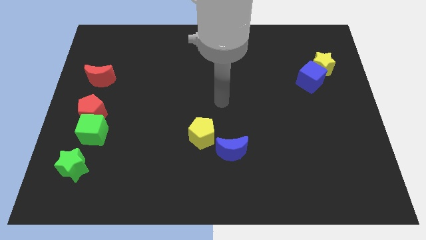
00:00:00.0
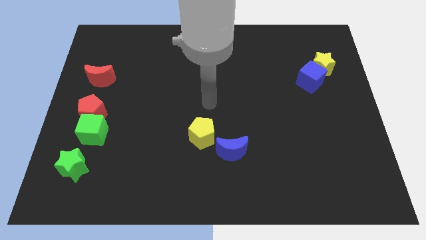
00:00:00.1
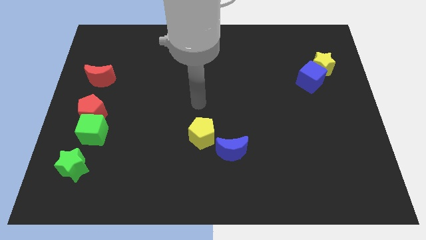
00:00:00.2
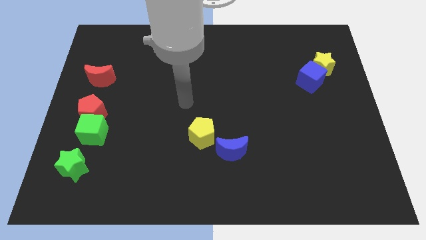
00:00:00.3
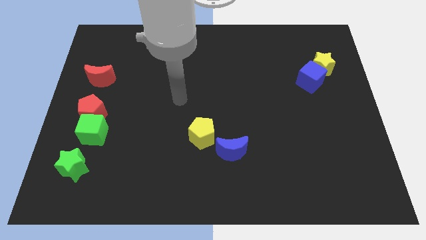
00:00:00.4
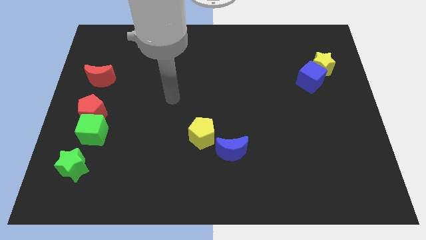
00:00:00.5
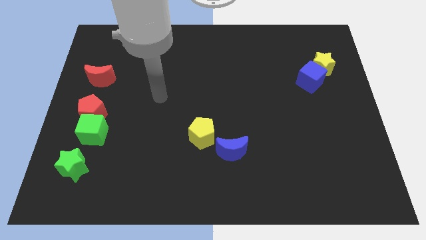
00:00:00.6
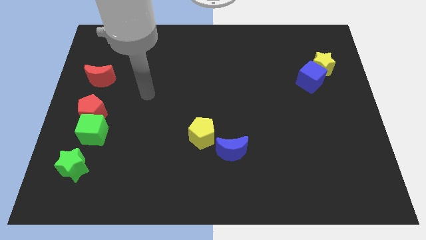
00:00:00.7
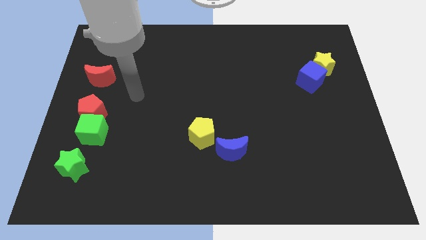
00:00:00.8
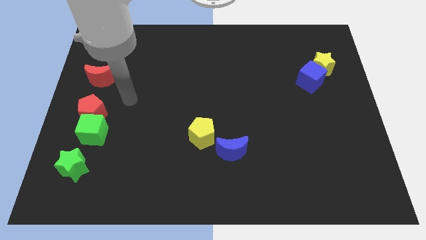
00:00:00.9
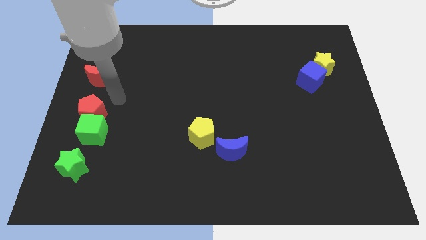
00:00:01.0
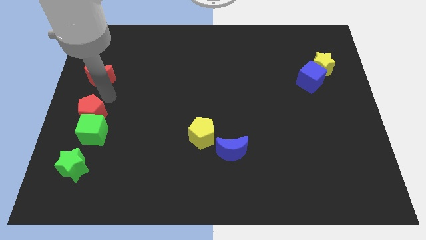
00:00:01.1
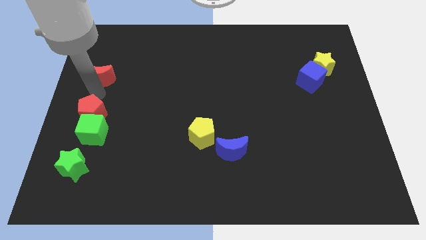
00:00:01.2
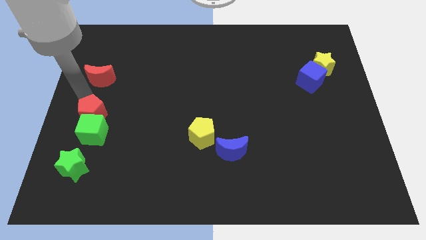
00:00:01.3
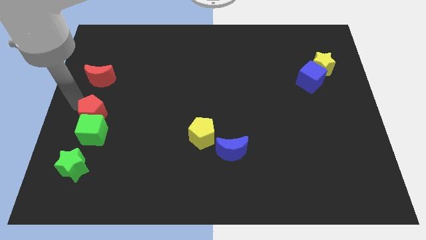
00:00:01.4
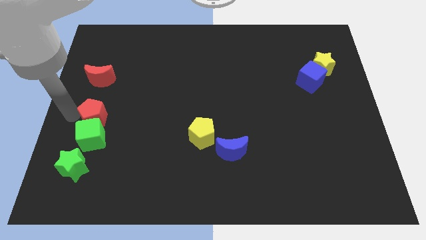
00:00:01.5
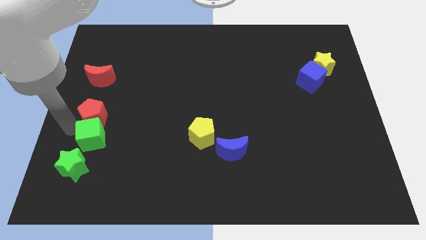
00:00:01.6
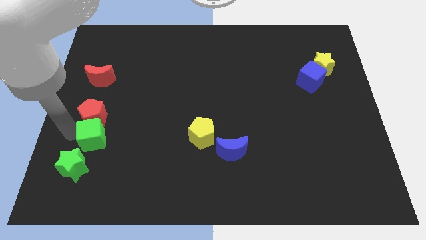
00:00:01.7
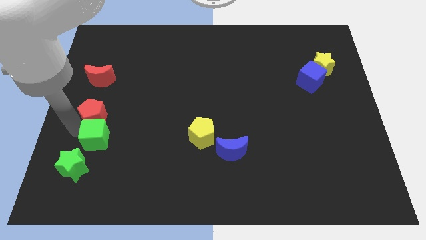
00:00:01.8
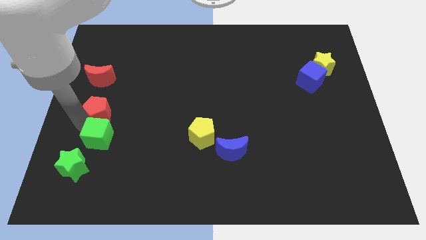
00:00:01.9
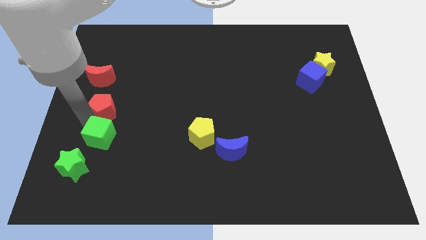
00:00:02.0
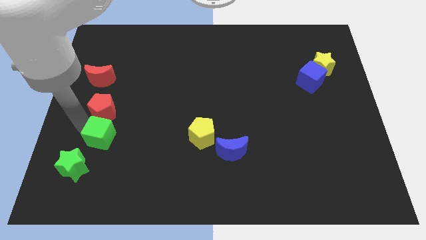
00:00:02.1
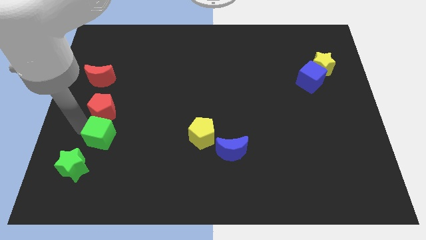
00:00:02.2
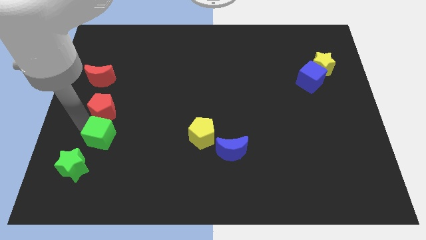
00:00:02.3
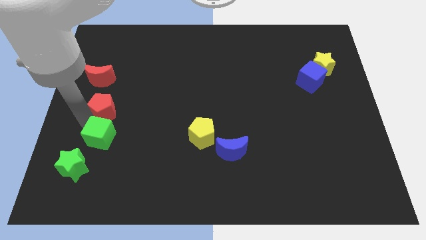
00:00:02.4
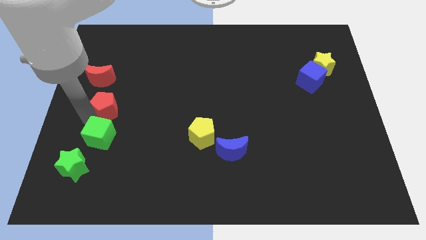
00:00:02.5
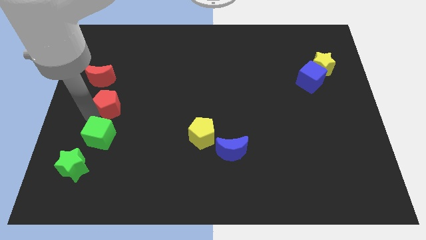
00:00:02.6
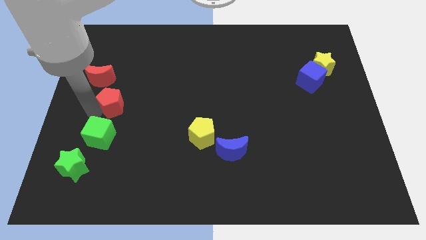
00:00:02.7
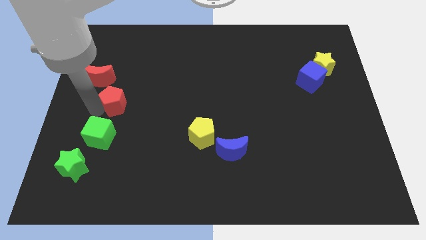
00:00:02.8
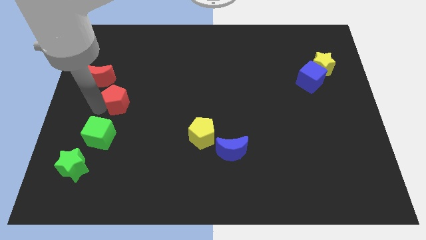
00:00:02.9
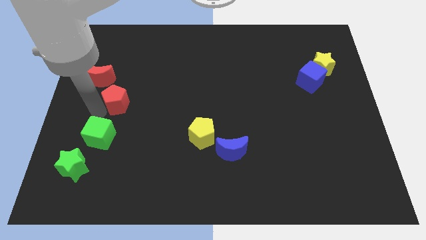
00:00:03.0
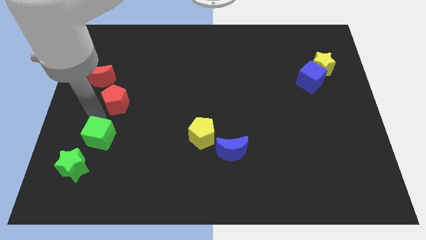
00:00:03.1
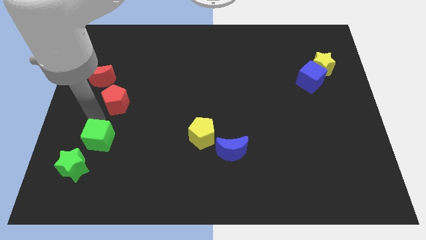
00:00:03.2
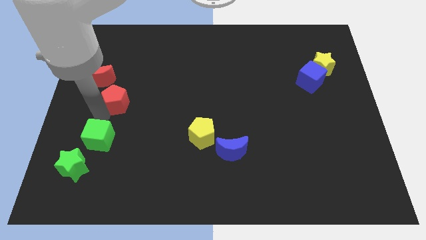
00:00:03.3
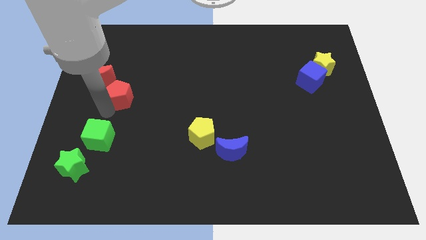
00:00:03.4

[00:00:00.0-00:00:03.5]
slightly move the red pentagon diagonally up and to the right

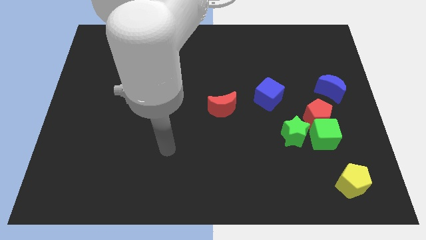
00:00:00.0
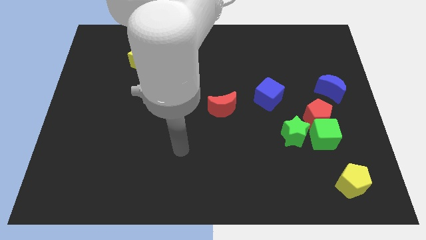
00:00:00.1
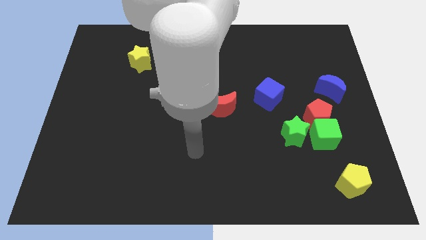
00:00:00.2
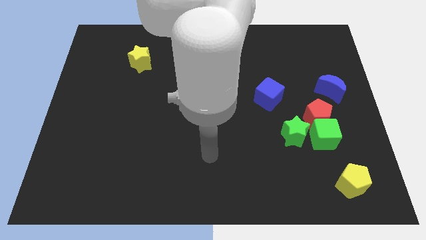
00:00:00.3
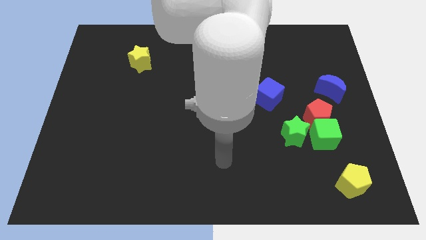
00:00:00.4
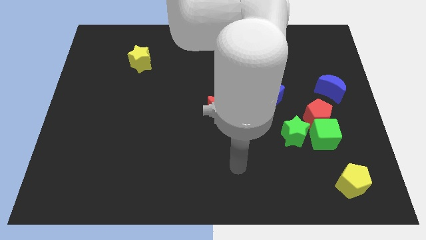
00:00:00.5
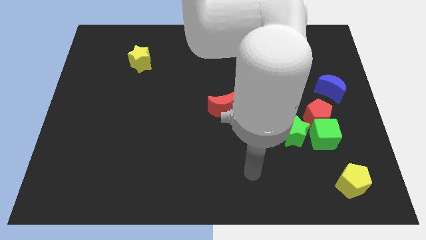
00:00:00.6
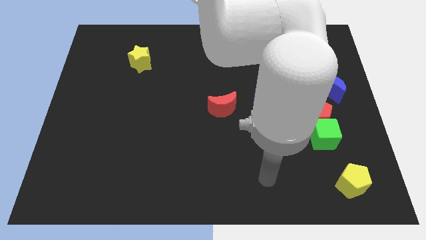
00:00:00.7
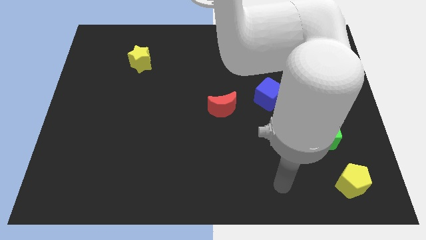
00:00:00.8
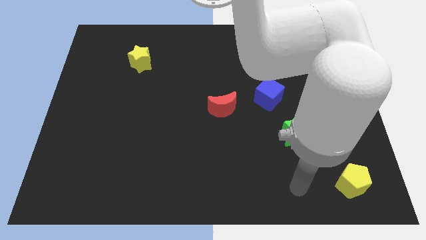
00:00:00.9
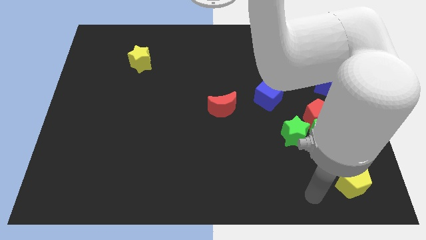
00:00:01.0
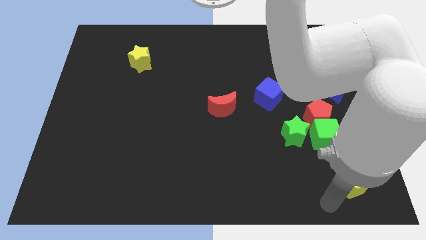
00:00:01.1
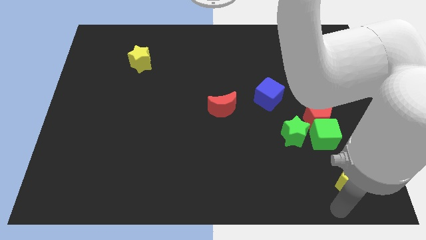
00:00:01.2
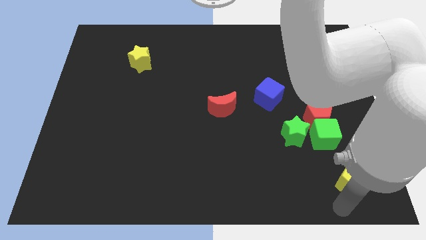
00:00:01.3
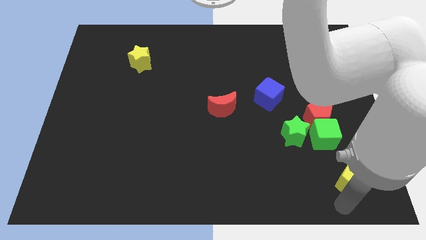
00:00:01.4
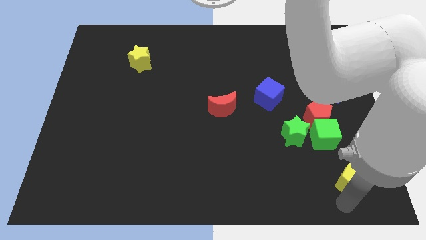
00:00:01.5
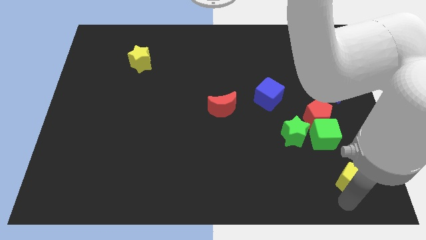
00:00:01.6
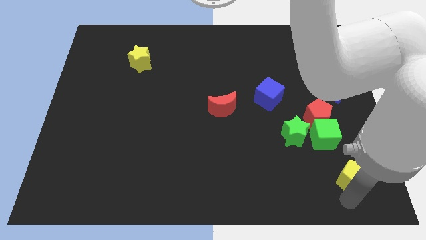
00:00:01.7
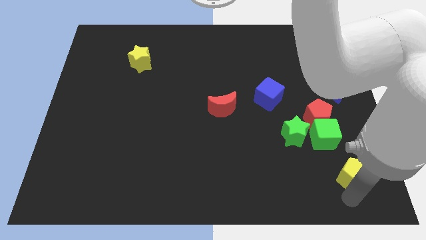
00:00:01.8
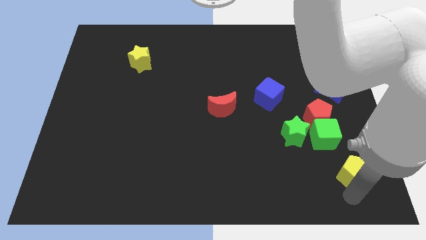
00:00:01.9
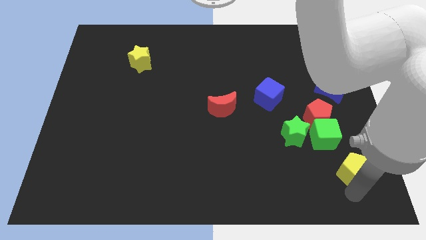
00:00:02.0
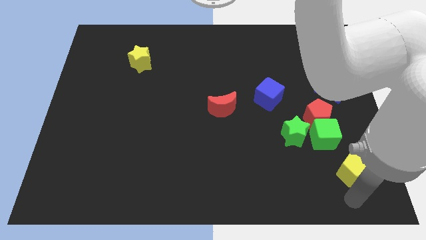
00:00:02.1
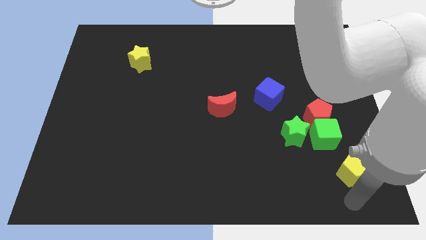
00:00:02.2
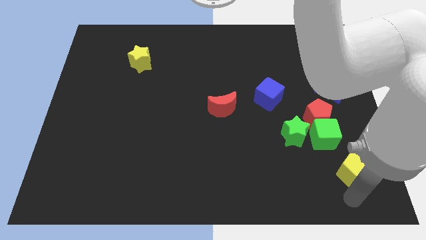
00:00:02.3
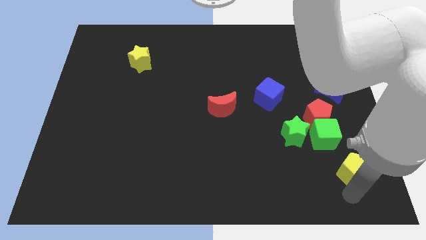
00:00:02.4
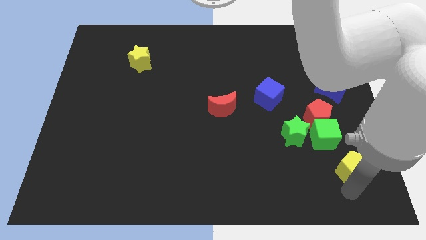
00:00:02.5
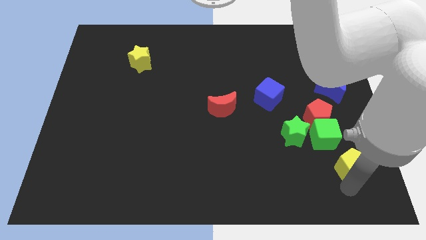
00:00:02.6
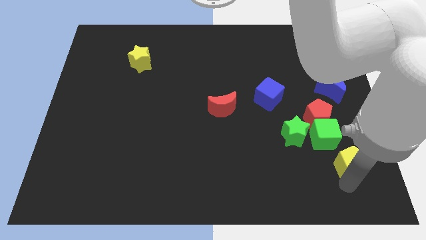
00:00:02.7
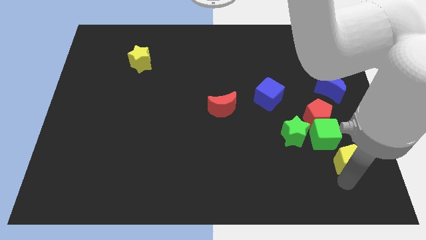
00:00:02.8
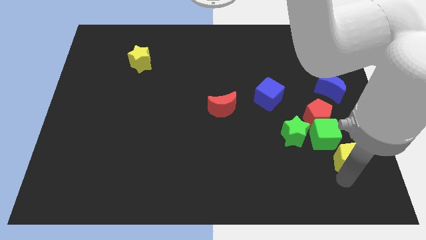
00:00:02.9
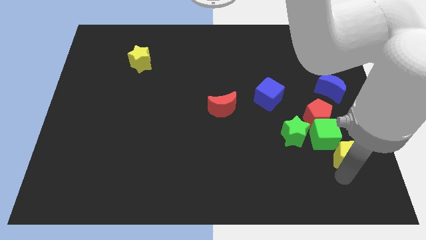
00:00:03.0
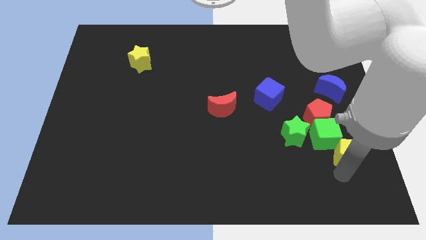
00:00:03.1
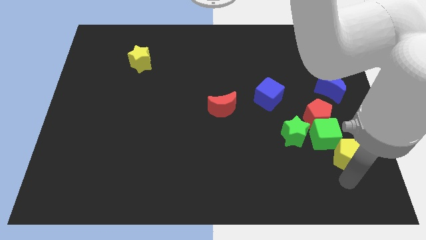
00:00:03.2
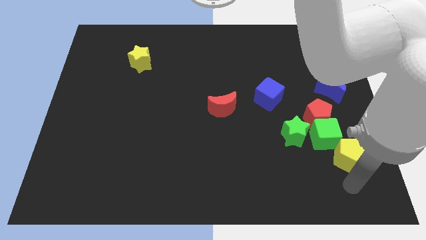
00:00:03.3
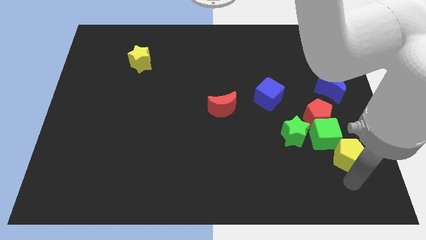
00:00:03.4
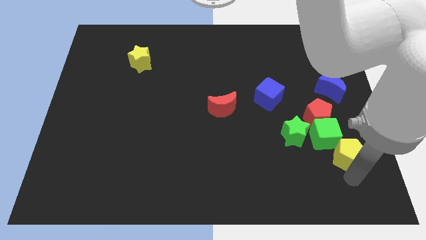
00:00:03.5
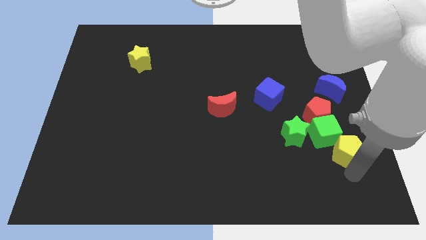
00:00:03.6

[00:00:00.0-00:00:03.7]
slightly push the yellow pentagon upwards

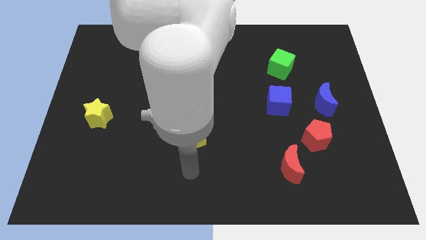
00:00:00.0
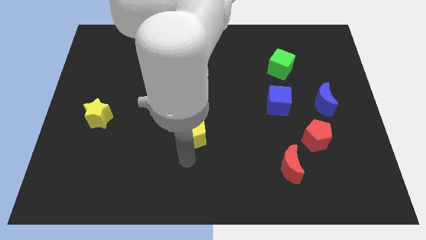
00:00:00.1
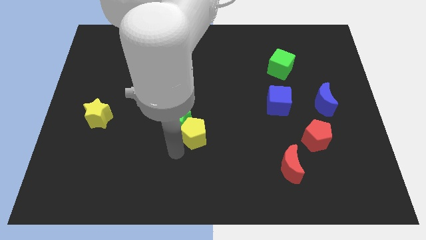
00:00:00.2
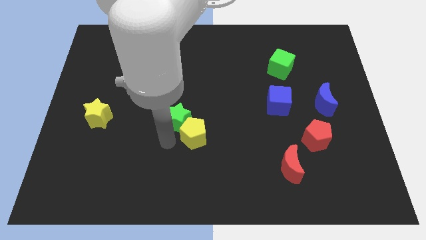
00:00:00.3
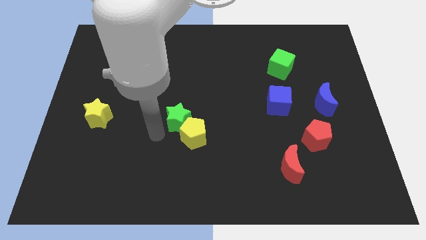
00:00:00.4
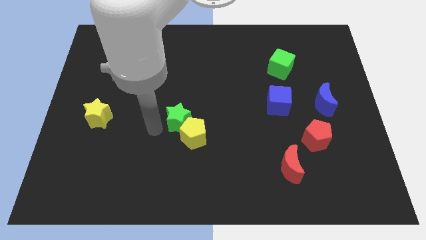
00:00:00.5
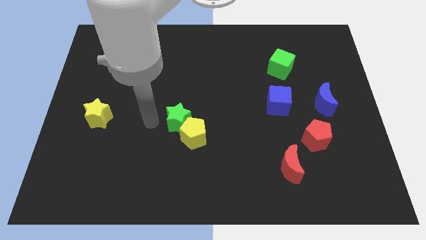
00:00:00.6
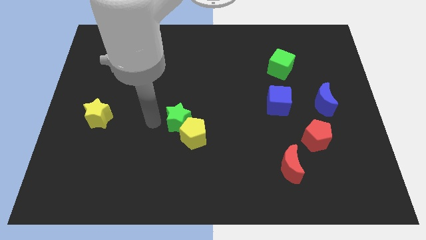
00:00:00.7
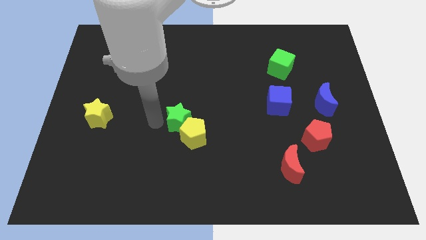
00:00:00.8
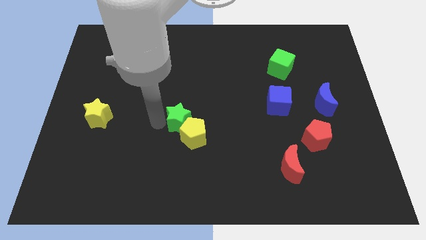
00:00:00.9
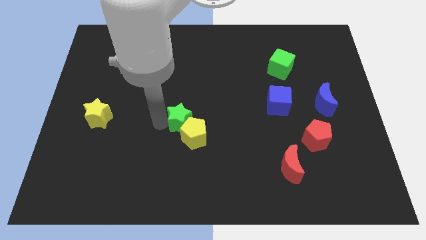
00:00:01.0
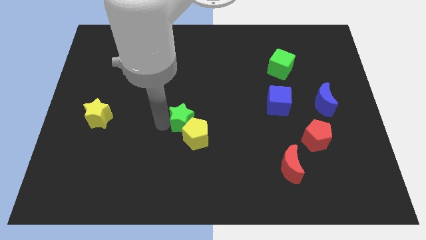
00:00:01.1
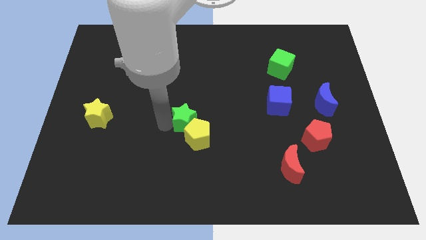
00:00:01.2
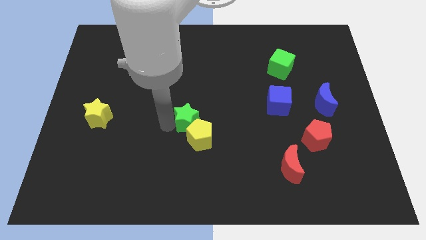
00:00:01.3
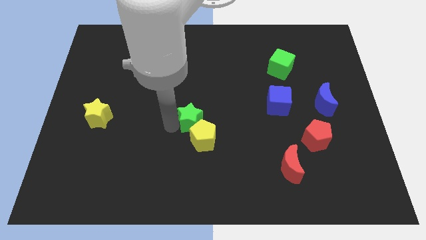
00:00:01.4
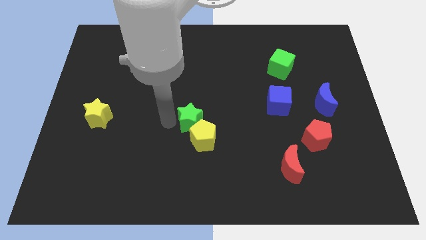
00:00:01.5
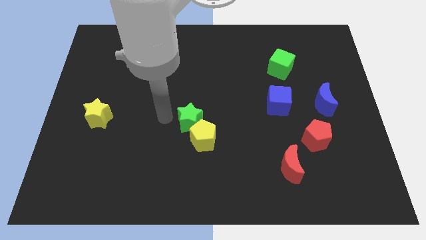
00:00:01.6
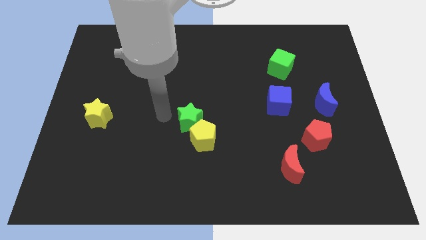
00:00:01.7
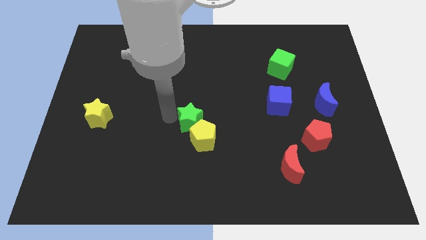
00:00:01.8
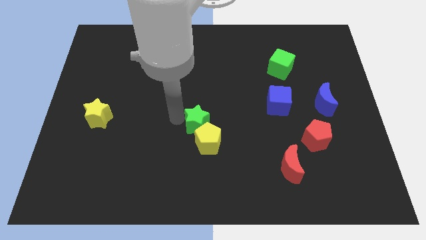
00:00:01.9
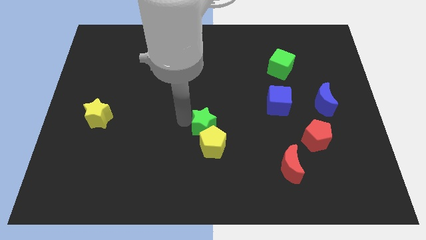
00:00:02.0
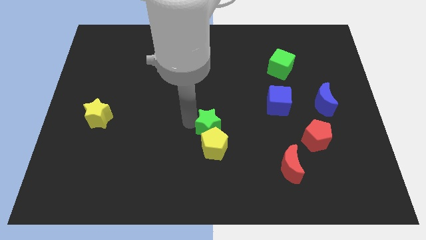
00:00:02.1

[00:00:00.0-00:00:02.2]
move the green star to the right a little
